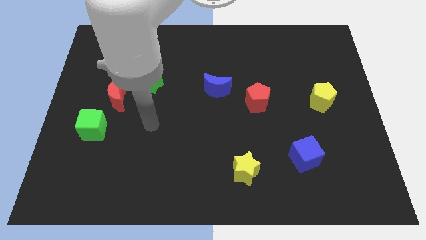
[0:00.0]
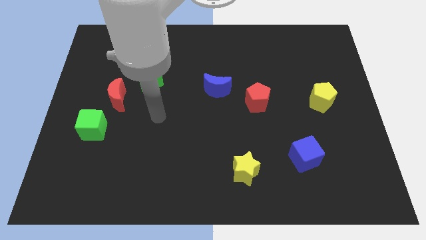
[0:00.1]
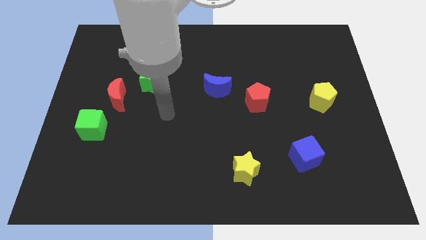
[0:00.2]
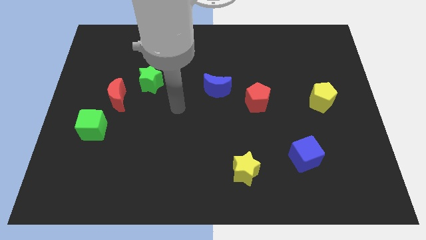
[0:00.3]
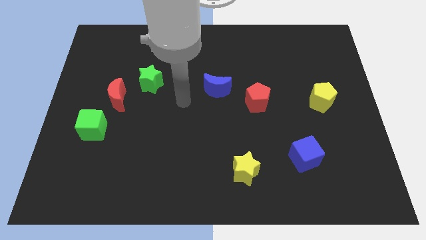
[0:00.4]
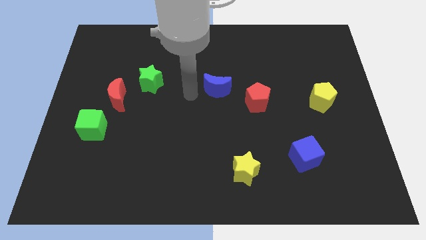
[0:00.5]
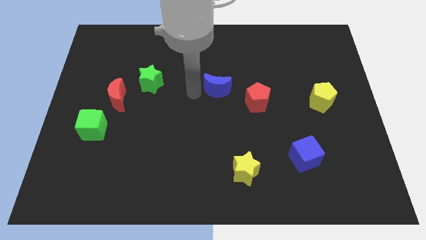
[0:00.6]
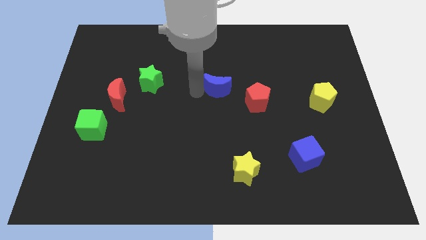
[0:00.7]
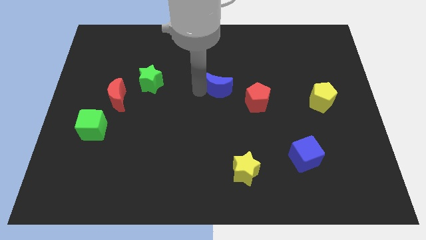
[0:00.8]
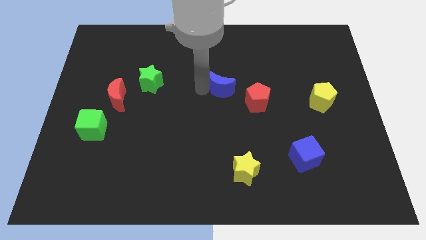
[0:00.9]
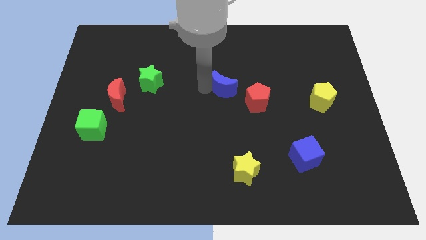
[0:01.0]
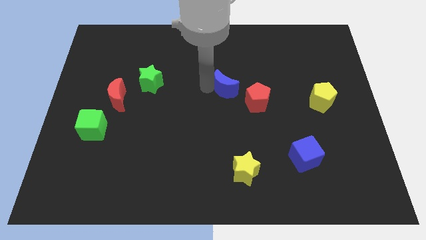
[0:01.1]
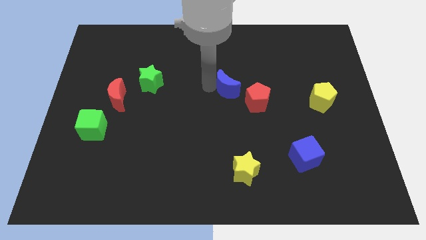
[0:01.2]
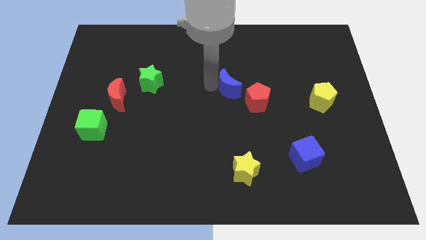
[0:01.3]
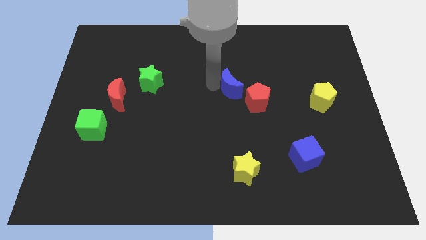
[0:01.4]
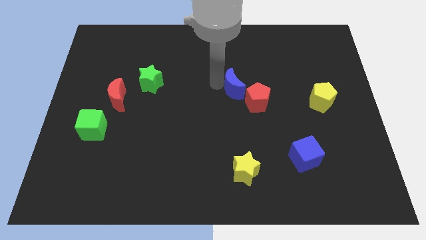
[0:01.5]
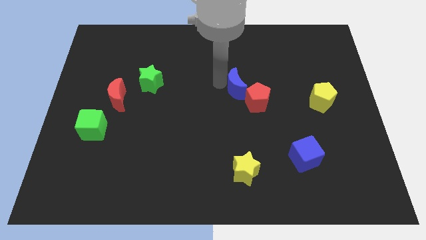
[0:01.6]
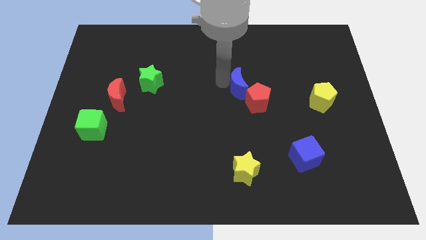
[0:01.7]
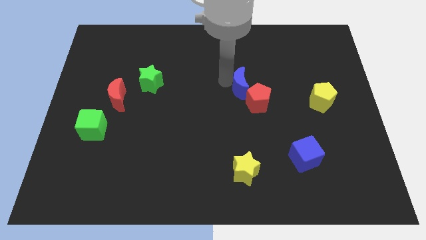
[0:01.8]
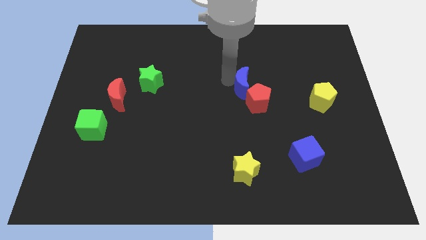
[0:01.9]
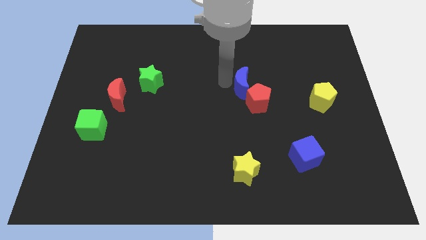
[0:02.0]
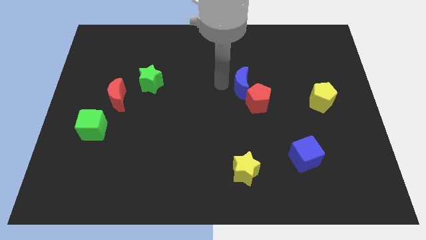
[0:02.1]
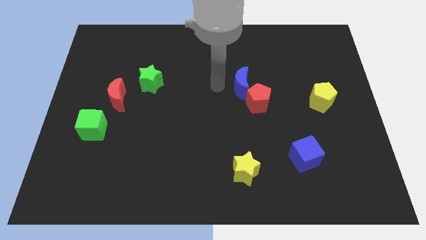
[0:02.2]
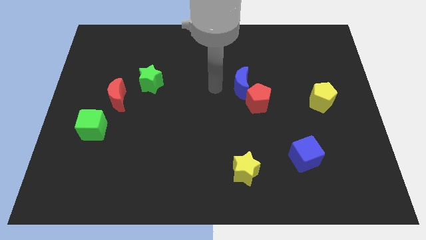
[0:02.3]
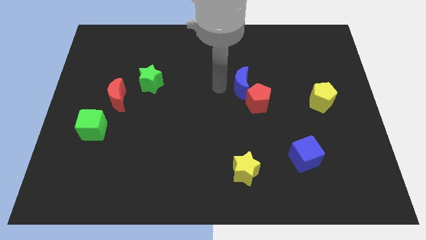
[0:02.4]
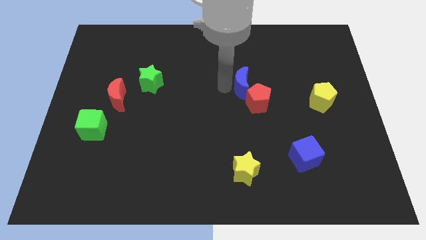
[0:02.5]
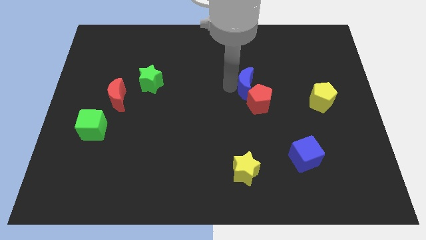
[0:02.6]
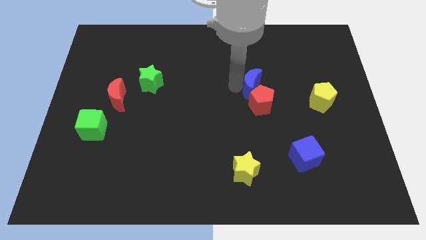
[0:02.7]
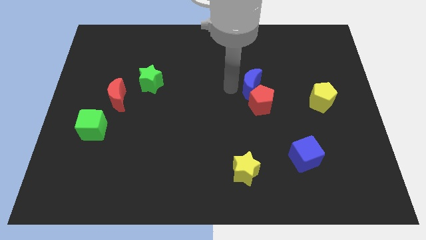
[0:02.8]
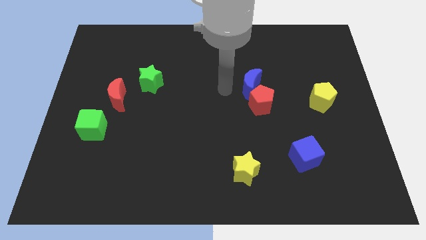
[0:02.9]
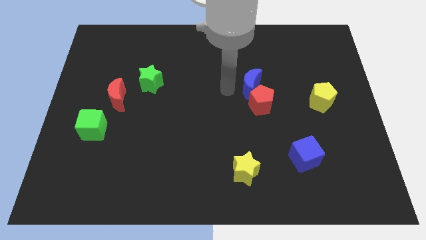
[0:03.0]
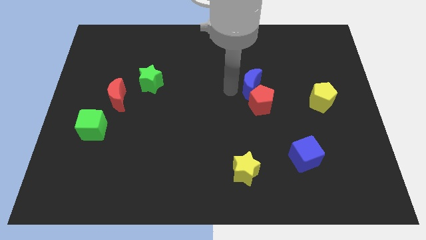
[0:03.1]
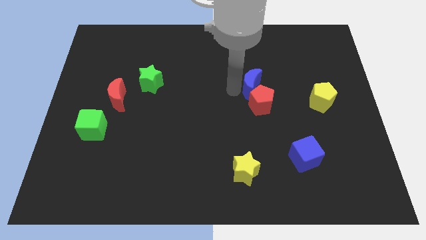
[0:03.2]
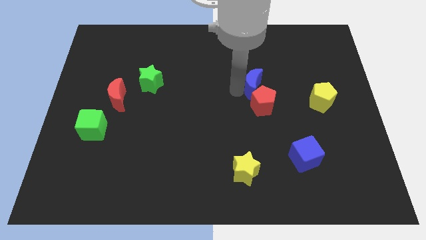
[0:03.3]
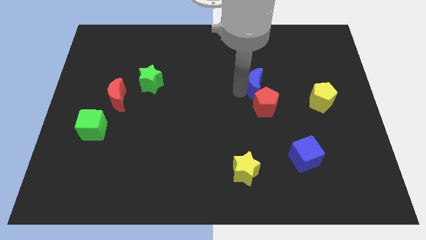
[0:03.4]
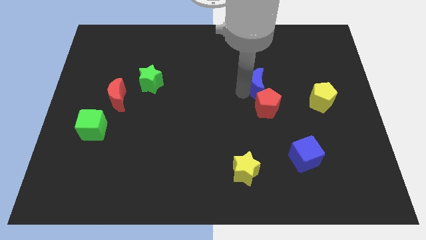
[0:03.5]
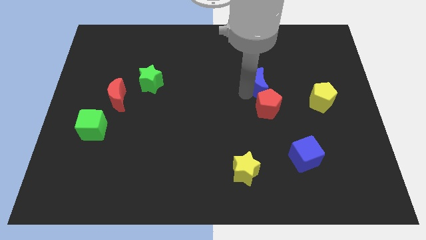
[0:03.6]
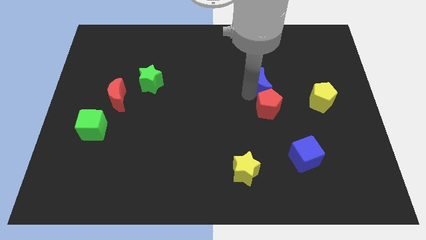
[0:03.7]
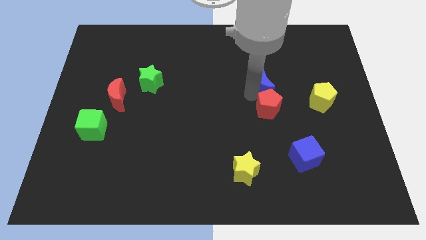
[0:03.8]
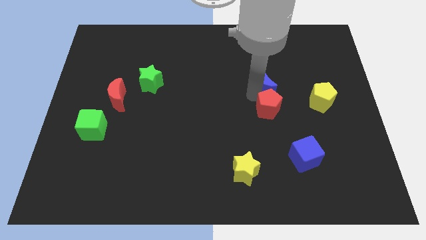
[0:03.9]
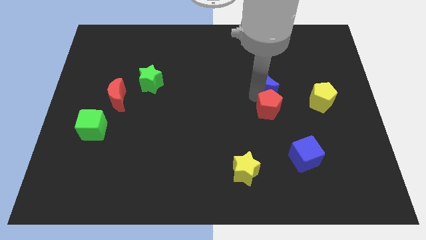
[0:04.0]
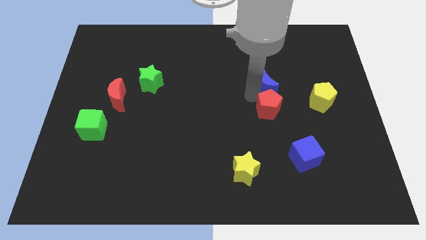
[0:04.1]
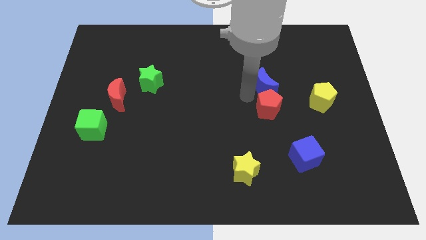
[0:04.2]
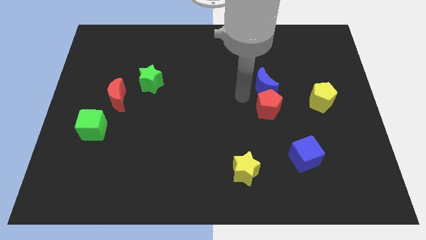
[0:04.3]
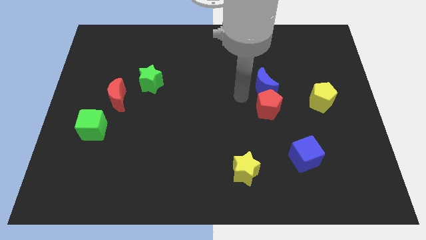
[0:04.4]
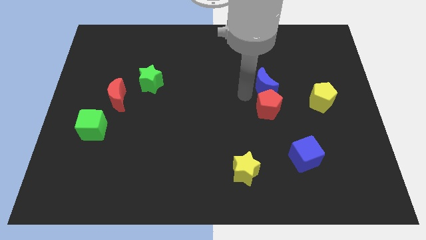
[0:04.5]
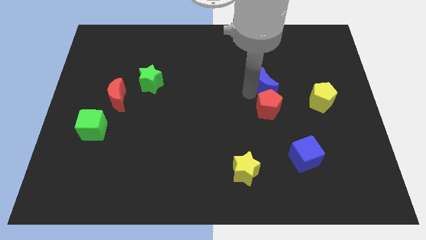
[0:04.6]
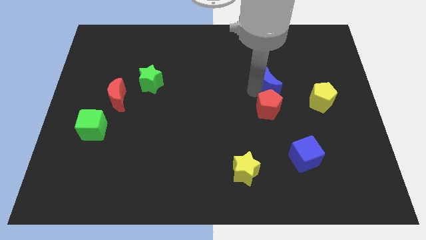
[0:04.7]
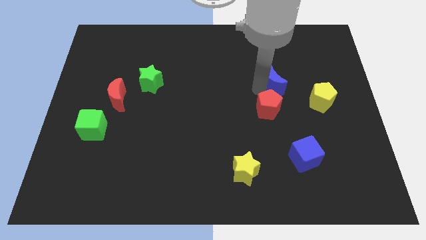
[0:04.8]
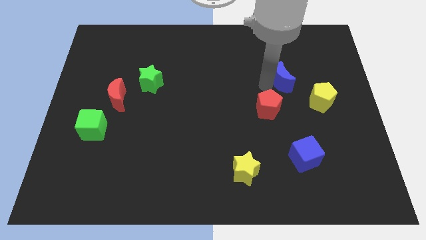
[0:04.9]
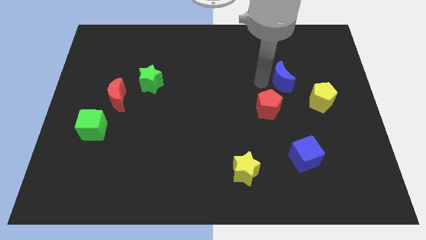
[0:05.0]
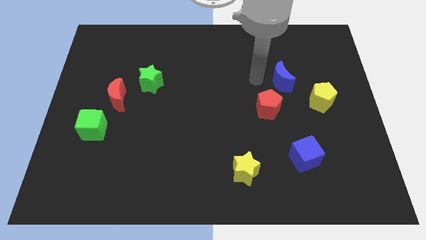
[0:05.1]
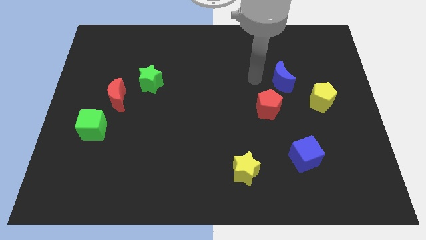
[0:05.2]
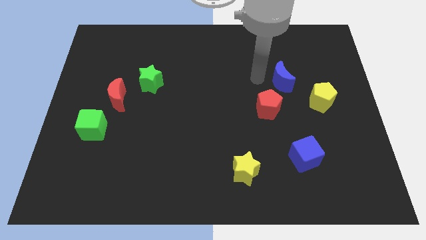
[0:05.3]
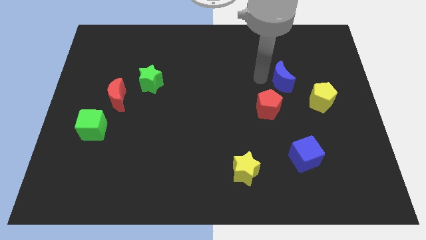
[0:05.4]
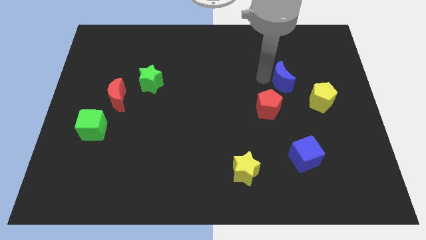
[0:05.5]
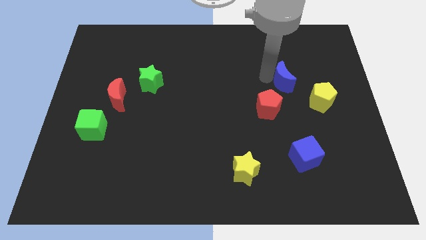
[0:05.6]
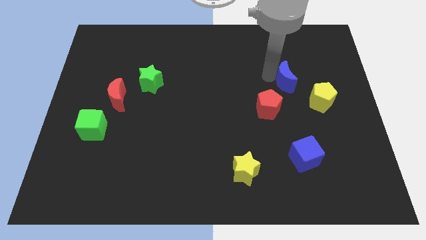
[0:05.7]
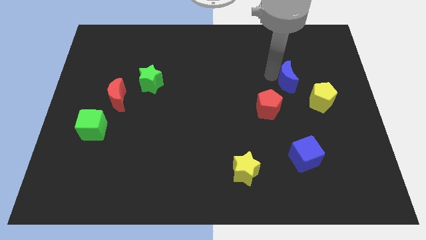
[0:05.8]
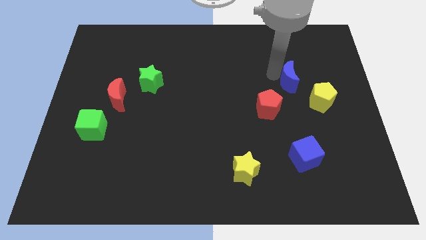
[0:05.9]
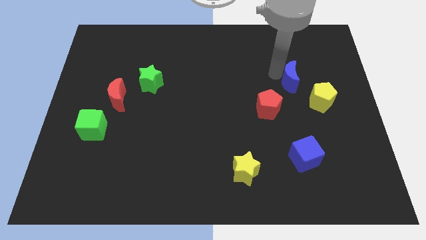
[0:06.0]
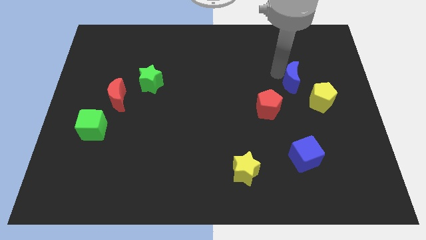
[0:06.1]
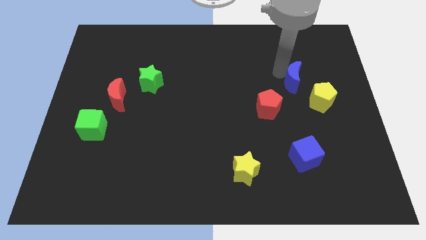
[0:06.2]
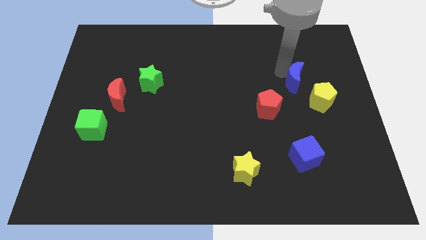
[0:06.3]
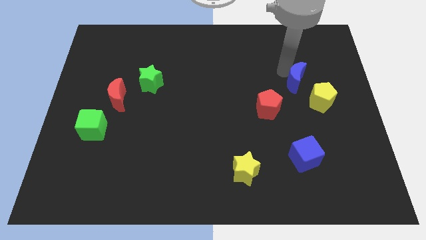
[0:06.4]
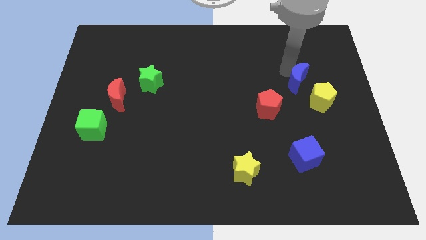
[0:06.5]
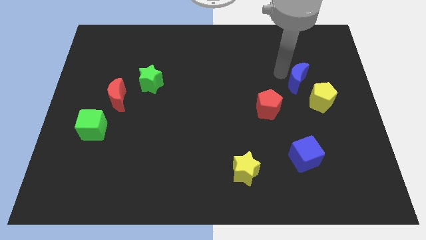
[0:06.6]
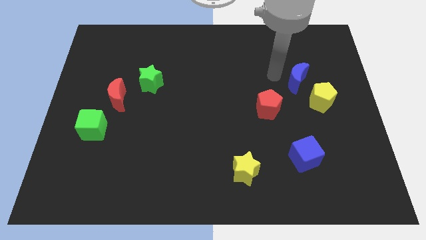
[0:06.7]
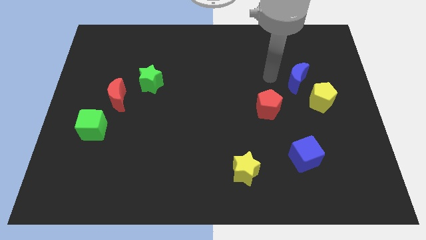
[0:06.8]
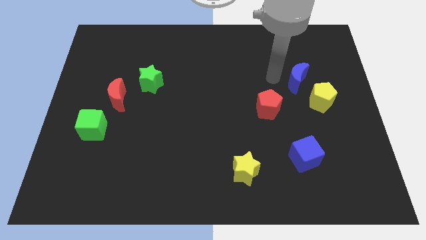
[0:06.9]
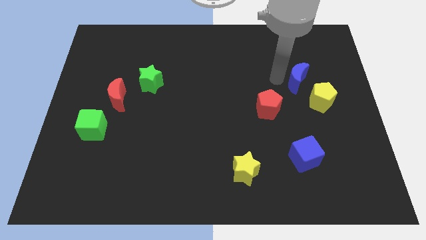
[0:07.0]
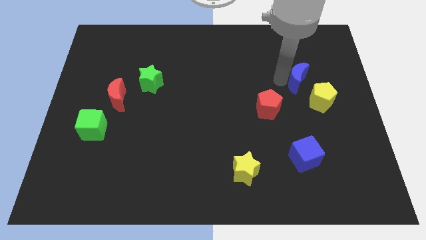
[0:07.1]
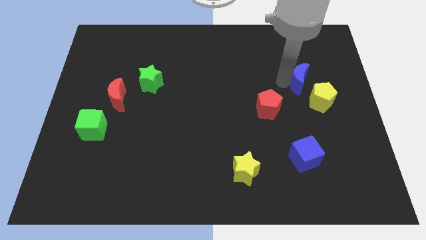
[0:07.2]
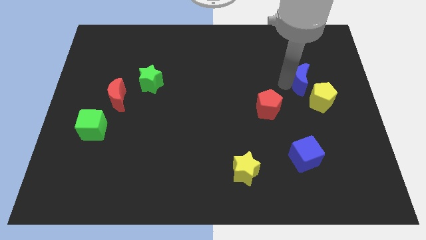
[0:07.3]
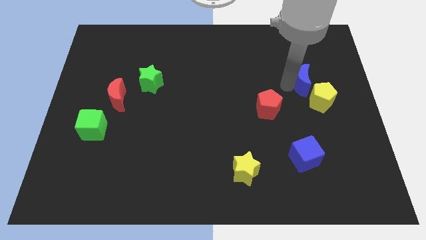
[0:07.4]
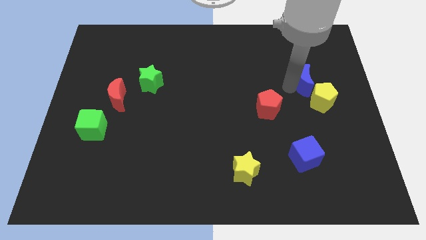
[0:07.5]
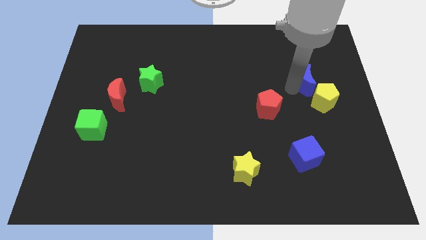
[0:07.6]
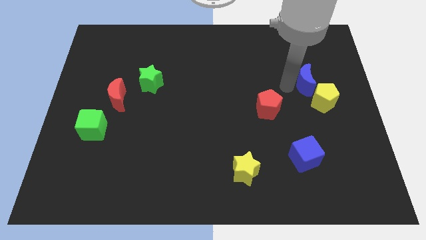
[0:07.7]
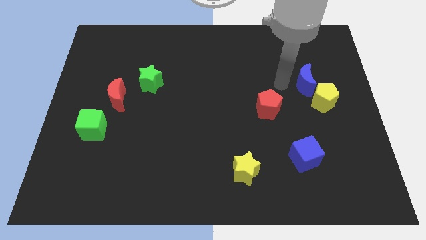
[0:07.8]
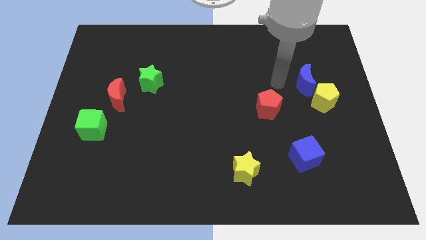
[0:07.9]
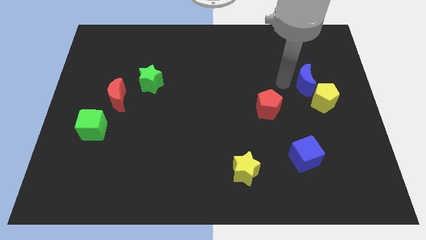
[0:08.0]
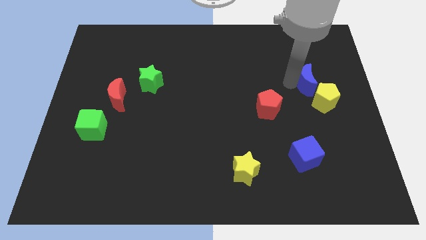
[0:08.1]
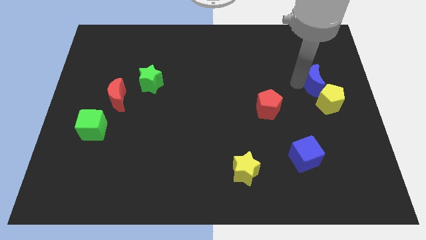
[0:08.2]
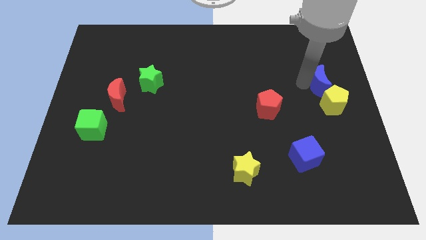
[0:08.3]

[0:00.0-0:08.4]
push the blue moon to the right side
